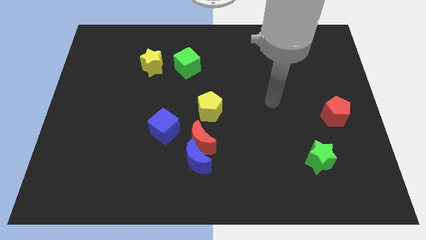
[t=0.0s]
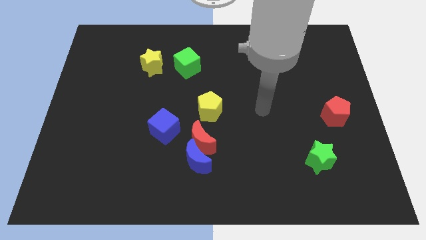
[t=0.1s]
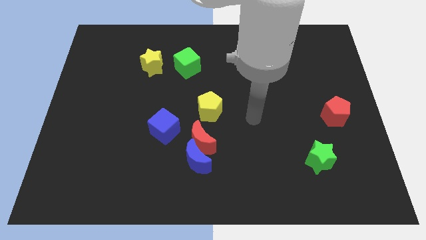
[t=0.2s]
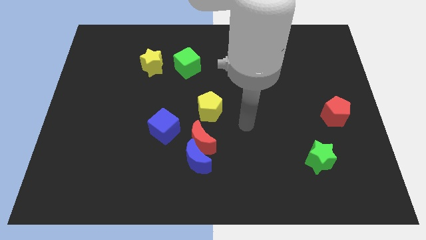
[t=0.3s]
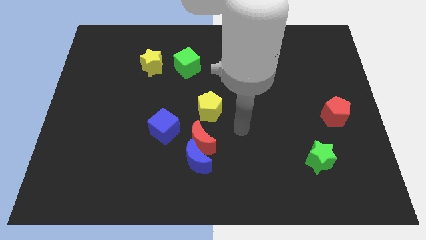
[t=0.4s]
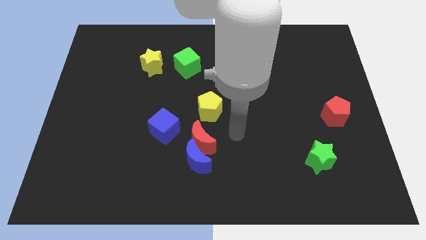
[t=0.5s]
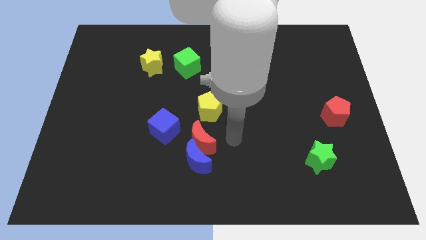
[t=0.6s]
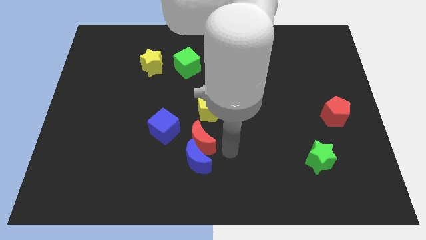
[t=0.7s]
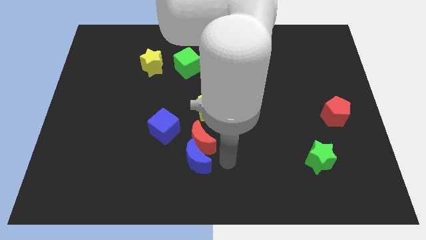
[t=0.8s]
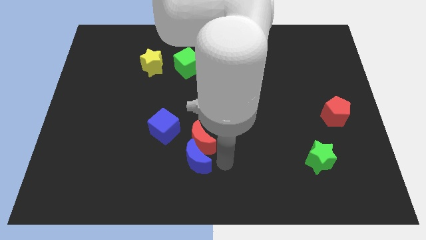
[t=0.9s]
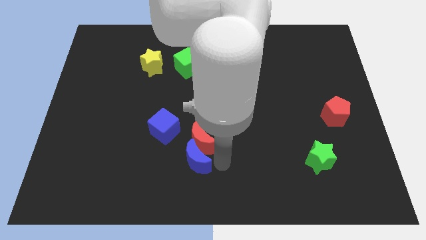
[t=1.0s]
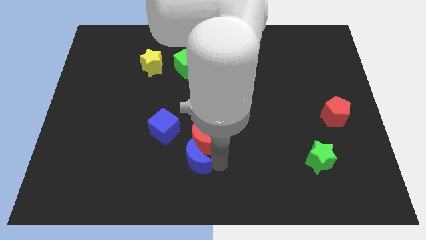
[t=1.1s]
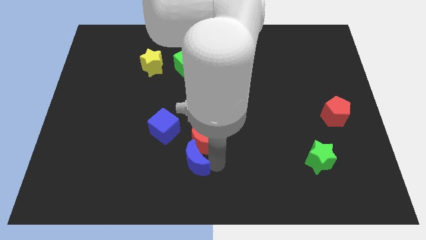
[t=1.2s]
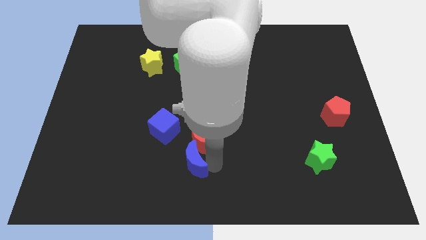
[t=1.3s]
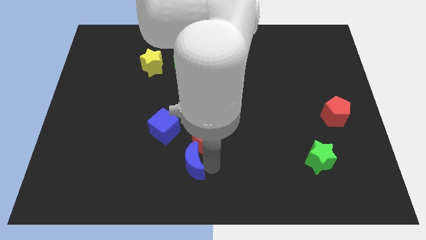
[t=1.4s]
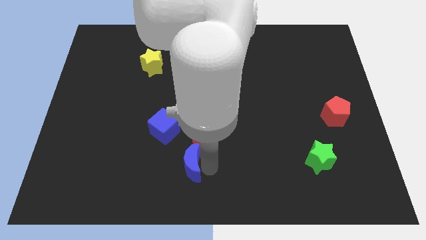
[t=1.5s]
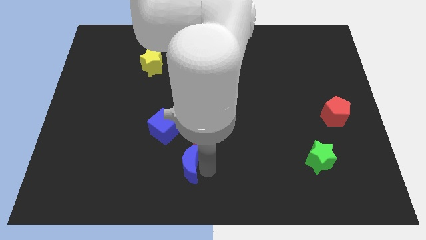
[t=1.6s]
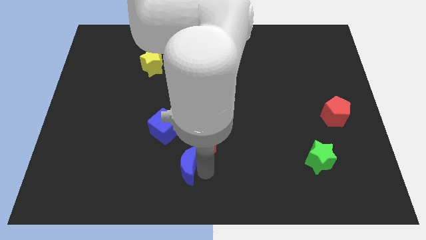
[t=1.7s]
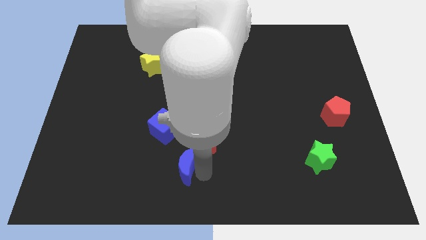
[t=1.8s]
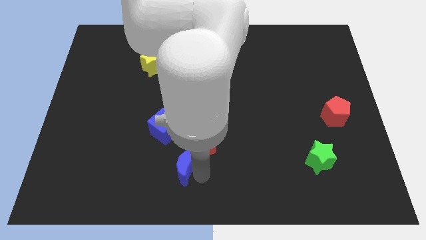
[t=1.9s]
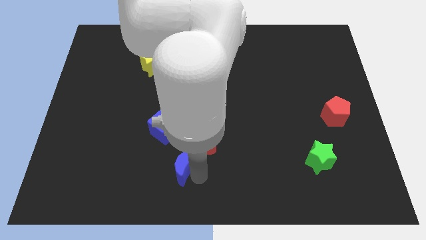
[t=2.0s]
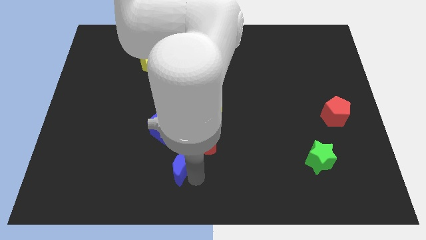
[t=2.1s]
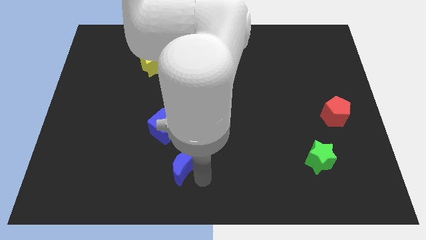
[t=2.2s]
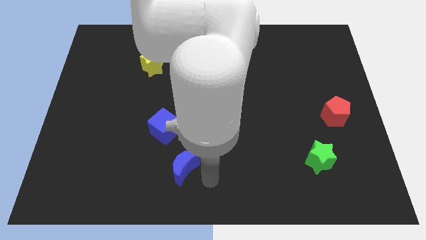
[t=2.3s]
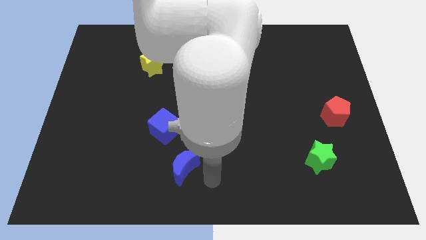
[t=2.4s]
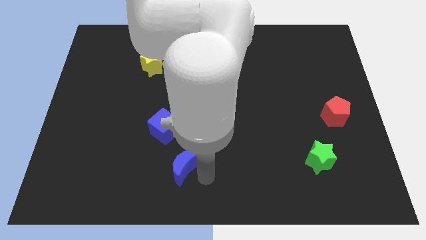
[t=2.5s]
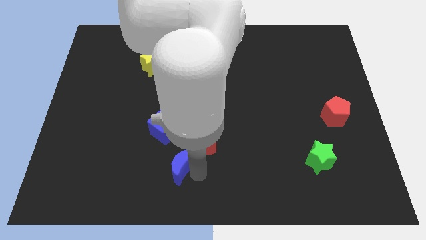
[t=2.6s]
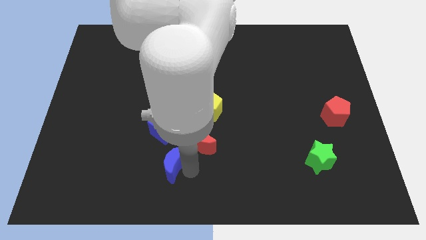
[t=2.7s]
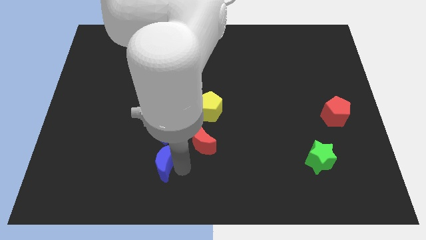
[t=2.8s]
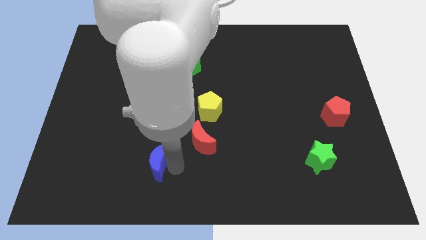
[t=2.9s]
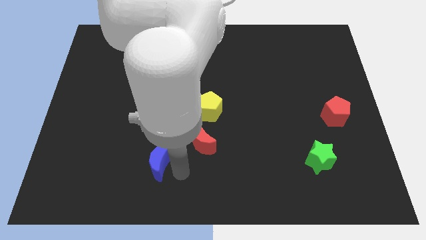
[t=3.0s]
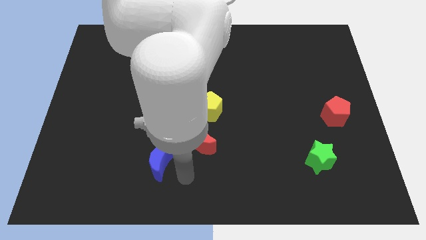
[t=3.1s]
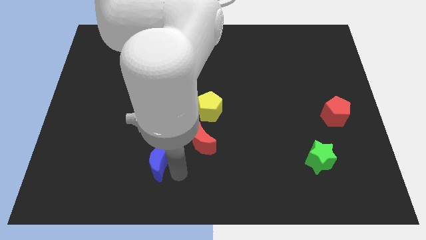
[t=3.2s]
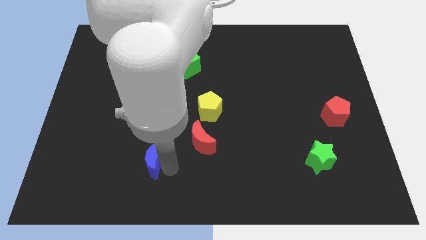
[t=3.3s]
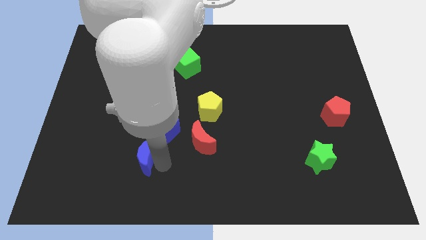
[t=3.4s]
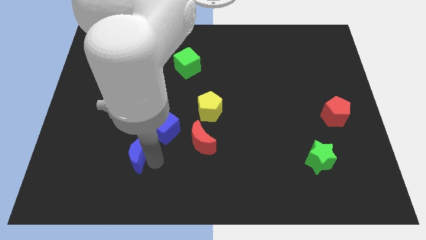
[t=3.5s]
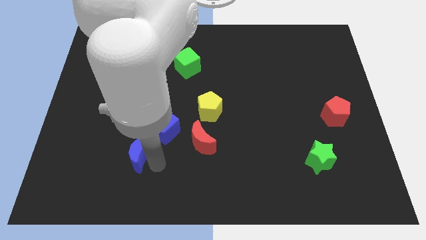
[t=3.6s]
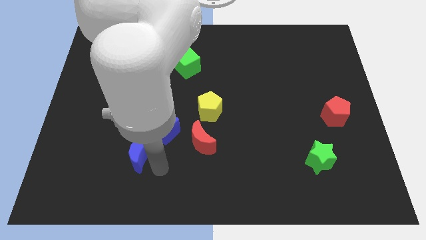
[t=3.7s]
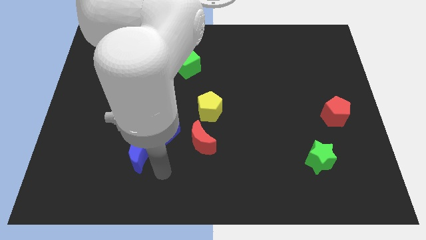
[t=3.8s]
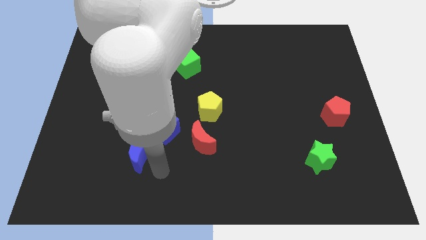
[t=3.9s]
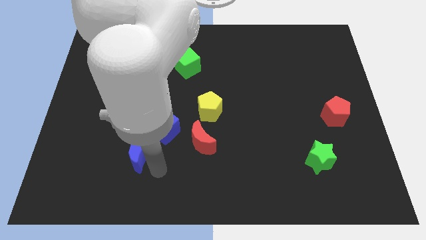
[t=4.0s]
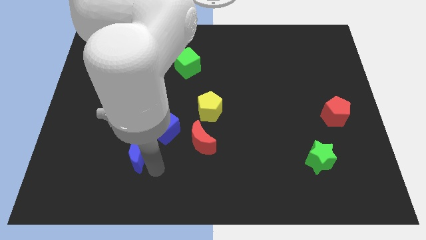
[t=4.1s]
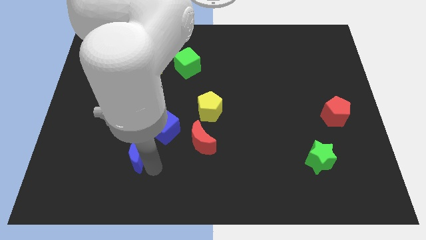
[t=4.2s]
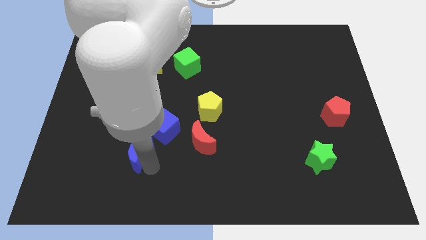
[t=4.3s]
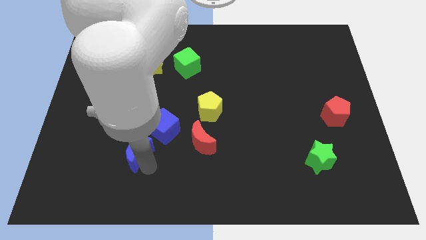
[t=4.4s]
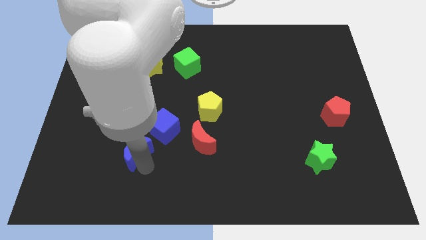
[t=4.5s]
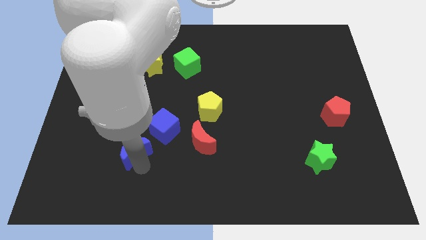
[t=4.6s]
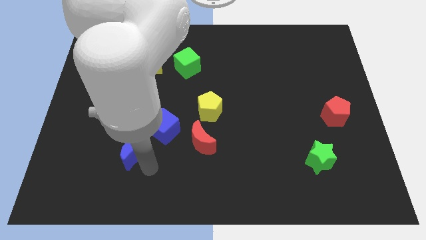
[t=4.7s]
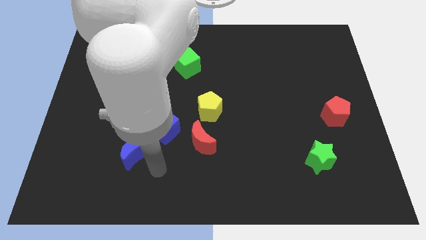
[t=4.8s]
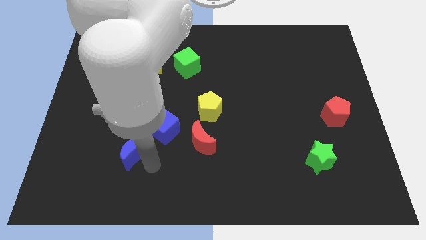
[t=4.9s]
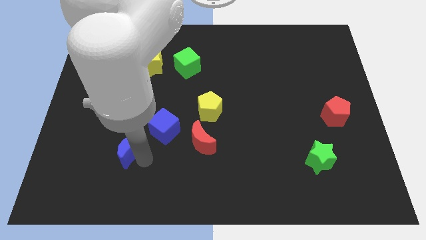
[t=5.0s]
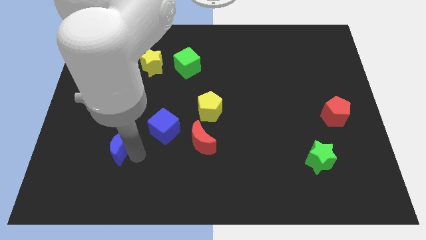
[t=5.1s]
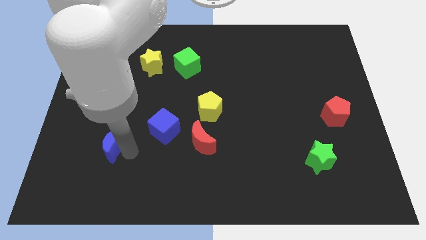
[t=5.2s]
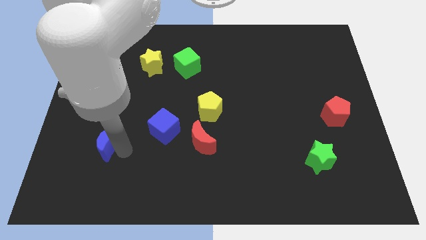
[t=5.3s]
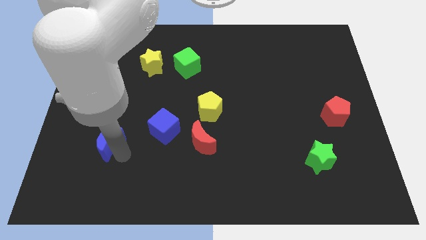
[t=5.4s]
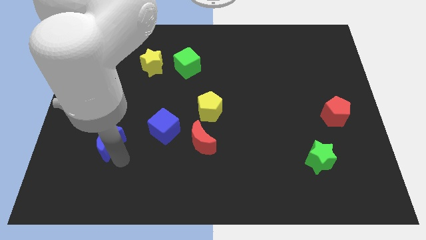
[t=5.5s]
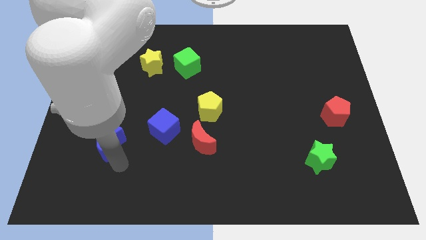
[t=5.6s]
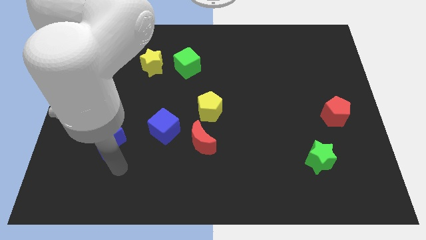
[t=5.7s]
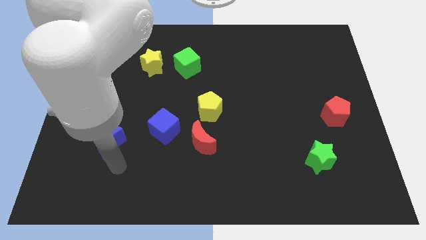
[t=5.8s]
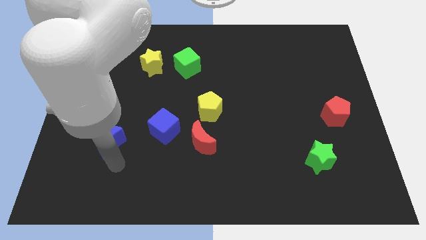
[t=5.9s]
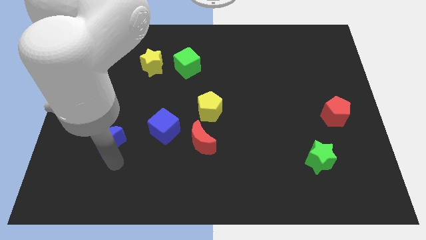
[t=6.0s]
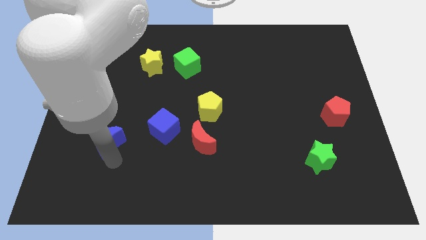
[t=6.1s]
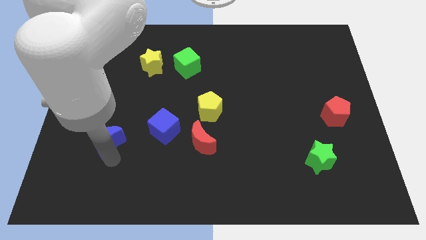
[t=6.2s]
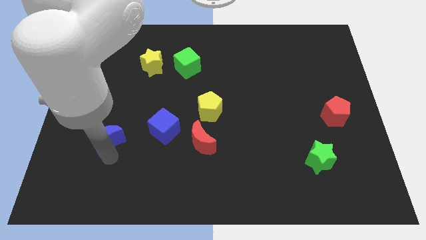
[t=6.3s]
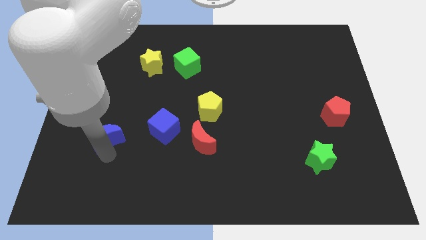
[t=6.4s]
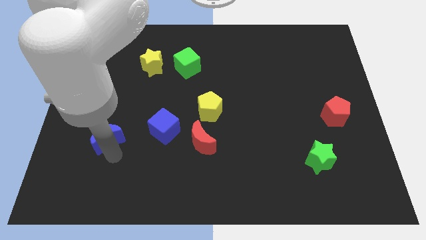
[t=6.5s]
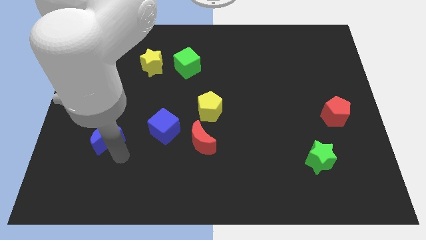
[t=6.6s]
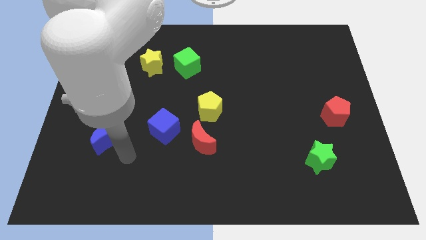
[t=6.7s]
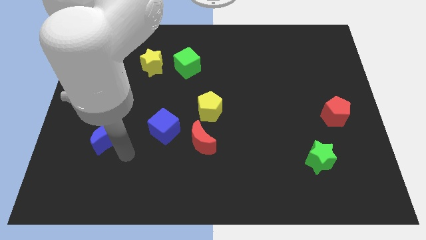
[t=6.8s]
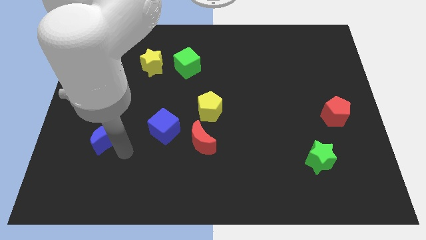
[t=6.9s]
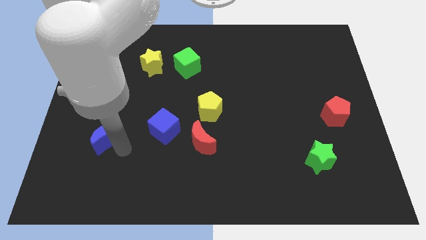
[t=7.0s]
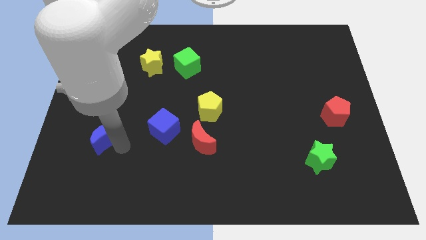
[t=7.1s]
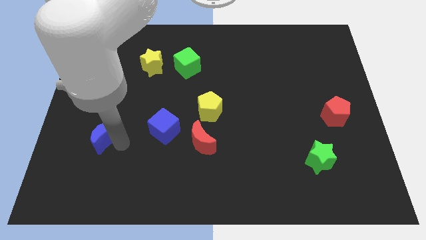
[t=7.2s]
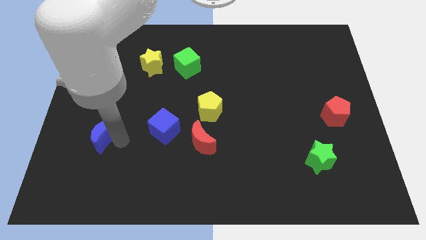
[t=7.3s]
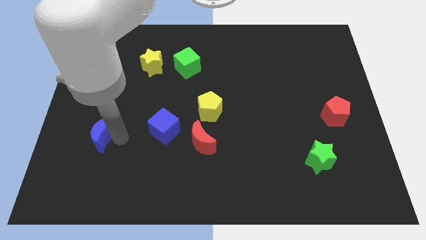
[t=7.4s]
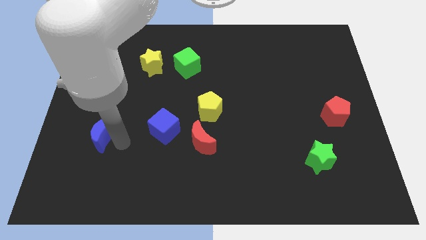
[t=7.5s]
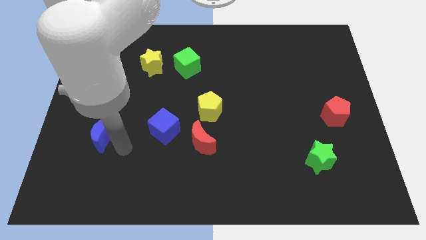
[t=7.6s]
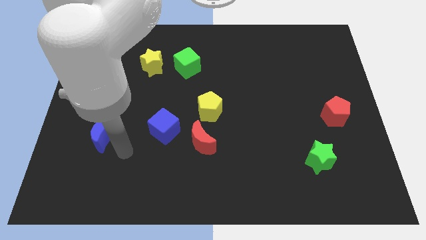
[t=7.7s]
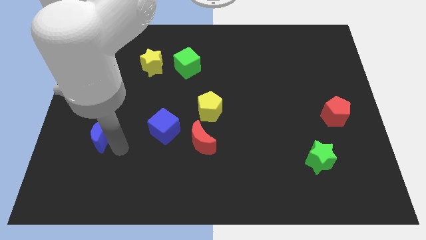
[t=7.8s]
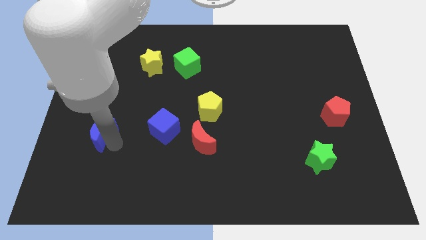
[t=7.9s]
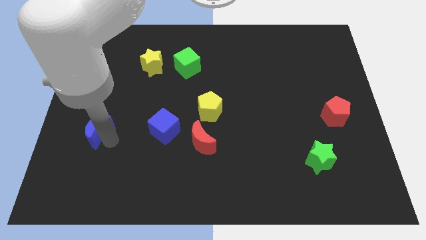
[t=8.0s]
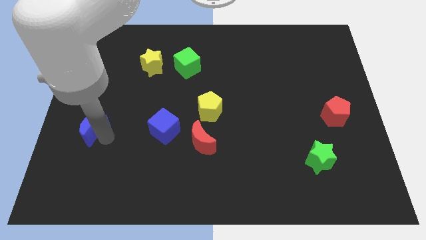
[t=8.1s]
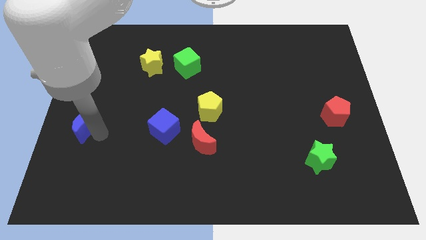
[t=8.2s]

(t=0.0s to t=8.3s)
put the blue moon to the left side of the board
